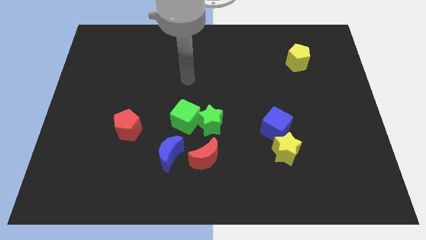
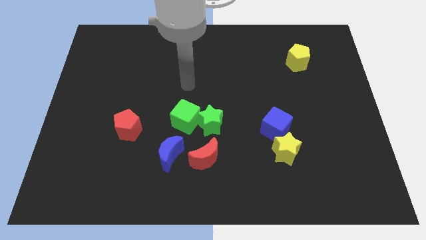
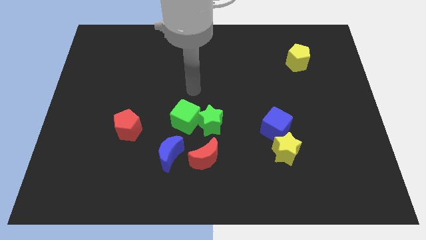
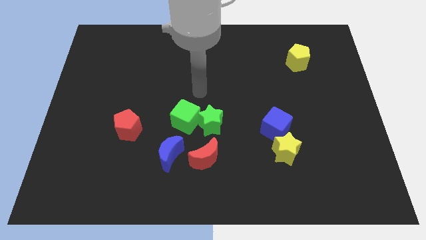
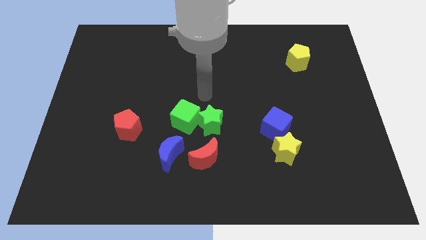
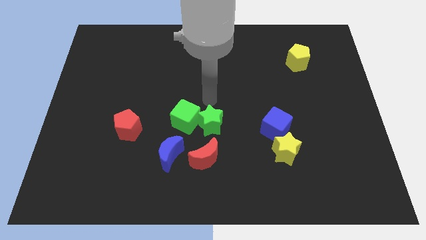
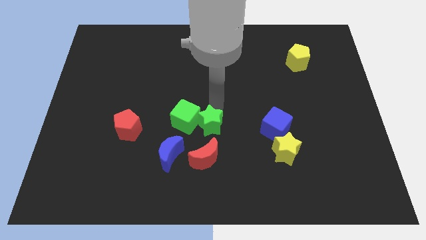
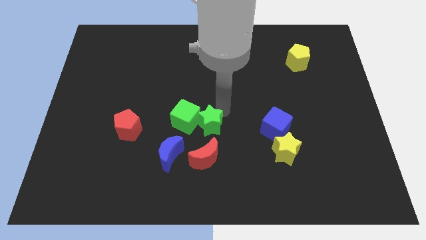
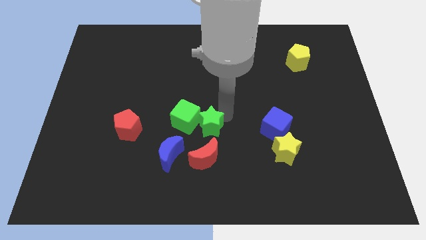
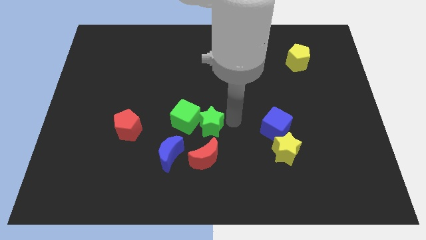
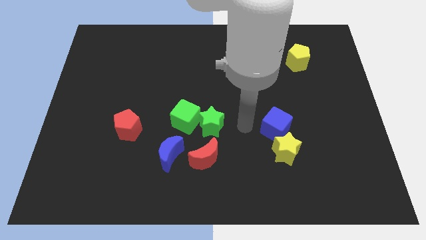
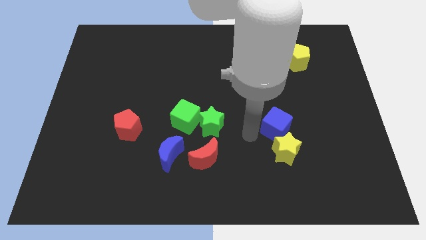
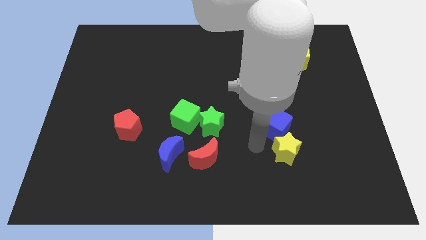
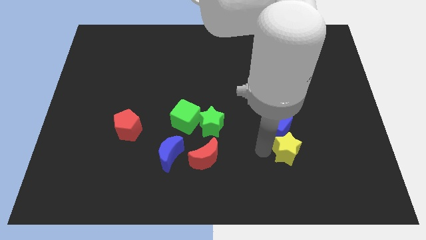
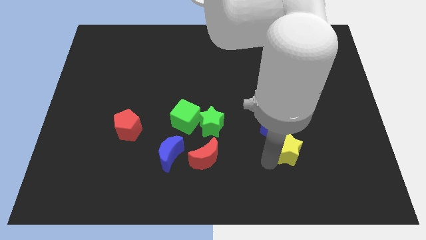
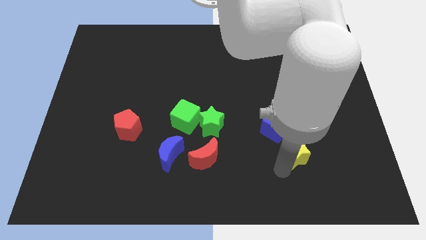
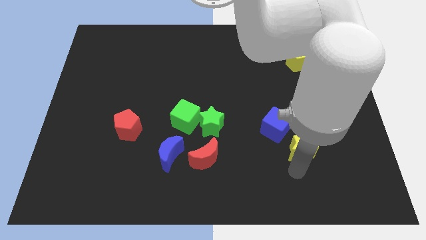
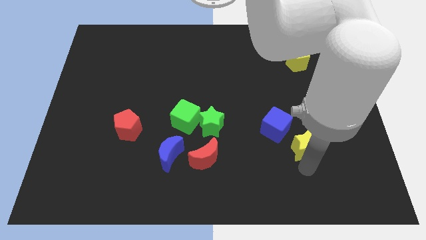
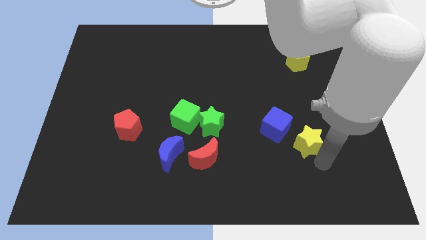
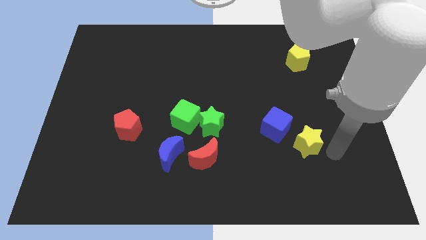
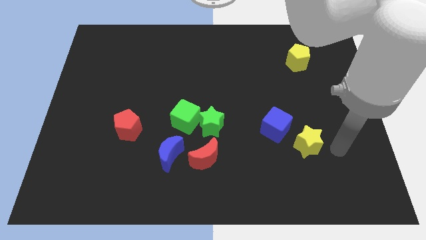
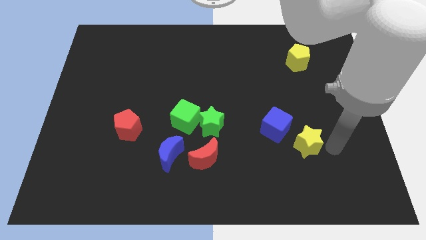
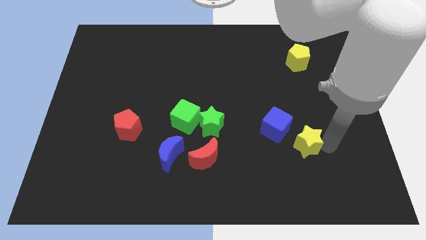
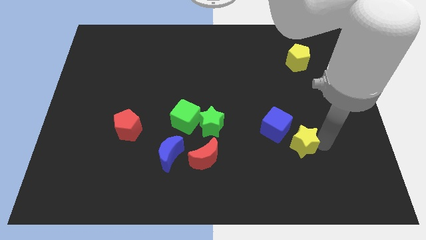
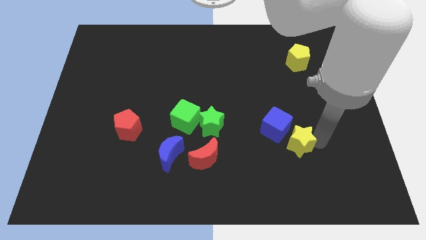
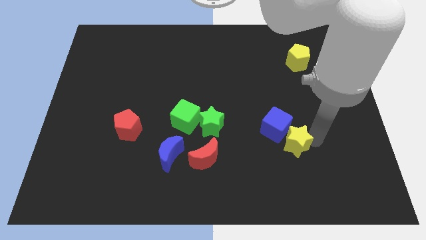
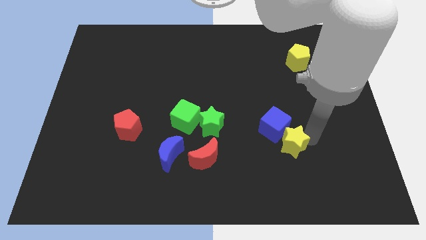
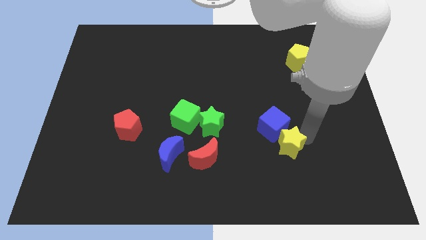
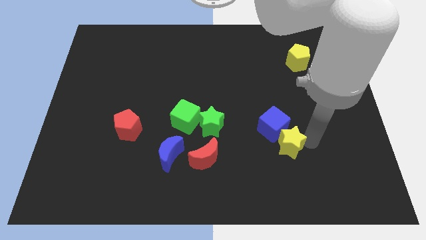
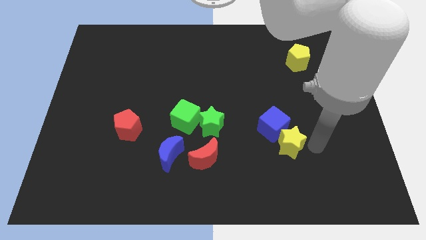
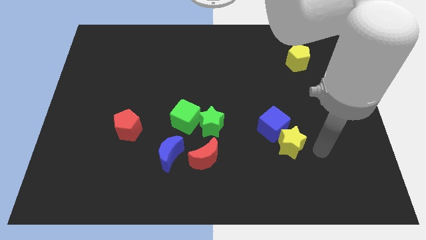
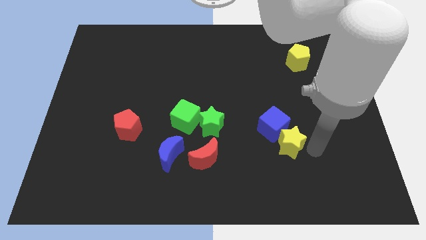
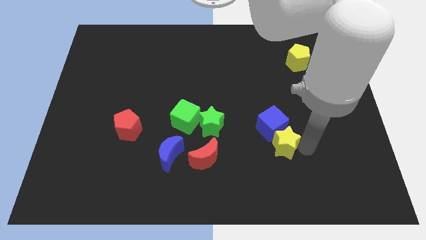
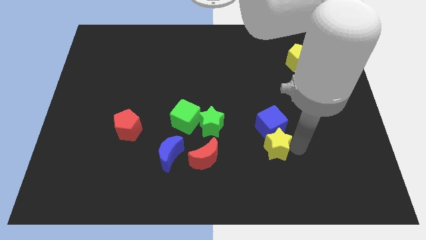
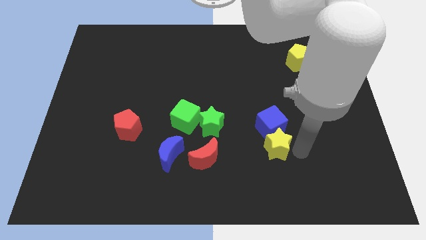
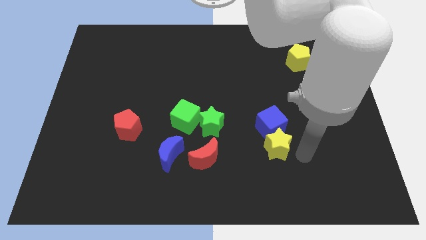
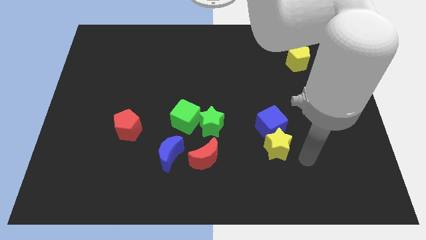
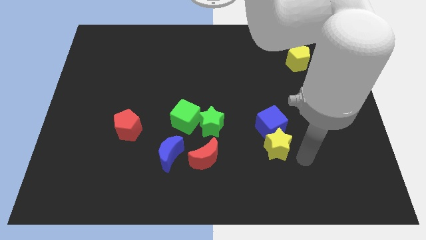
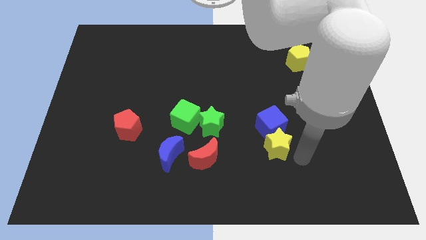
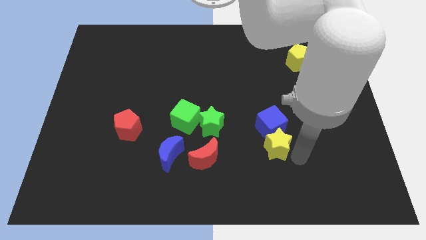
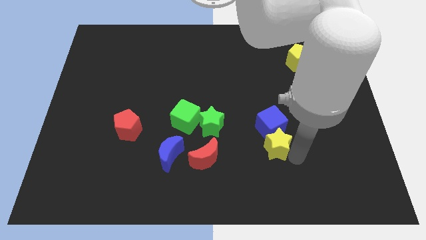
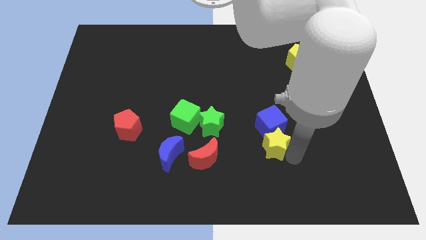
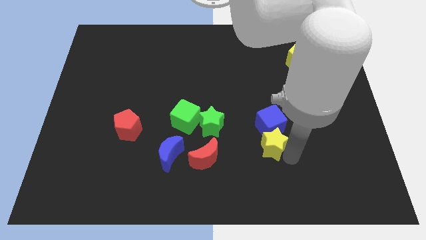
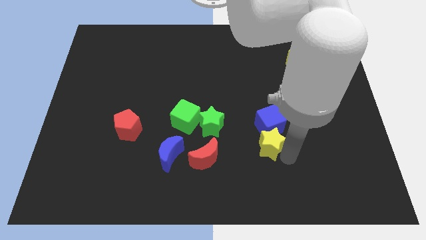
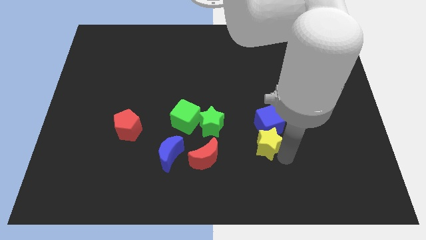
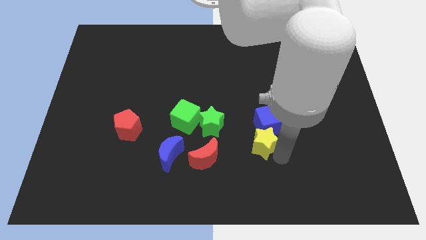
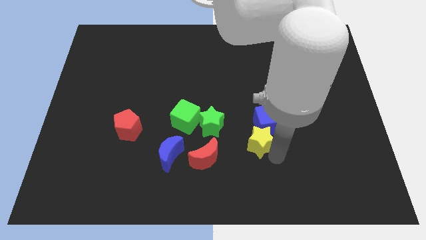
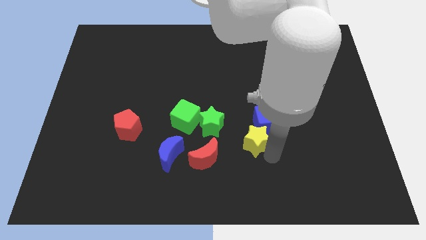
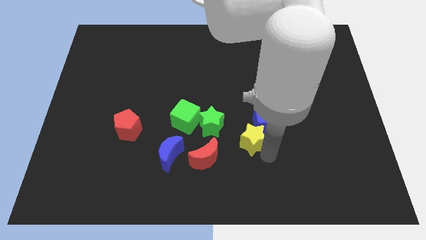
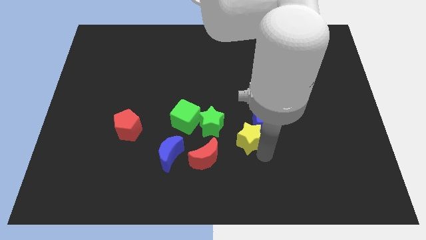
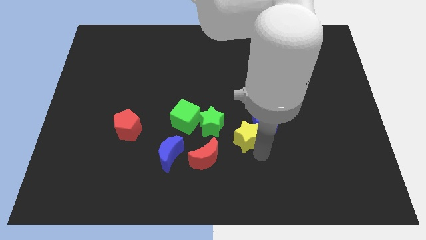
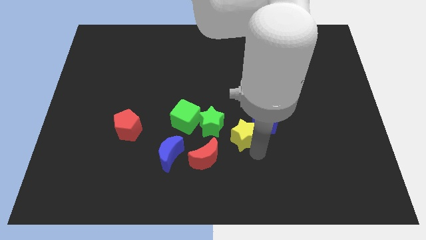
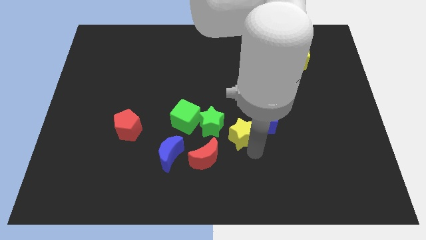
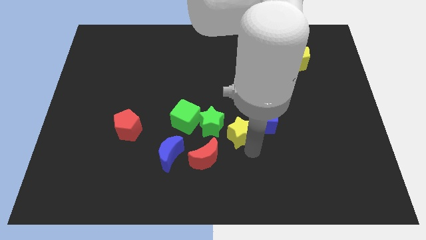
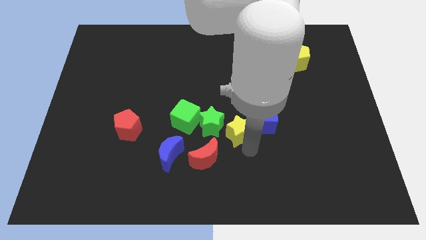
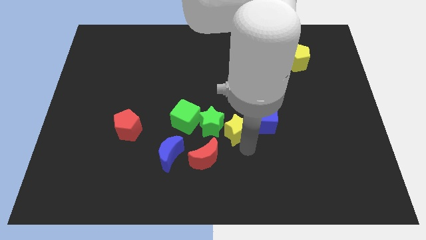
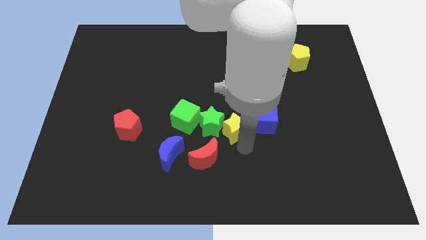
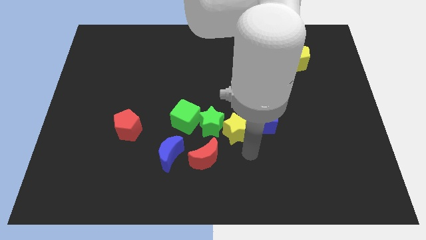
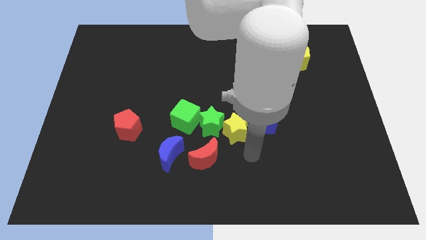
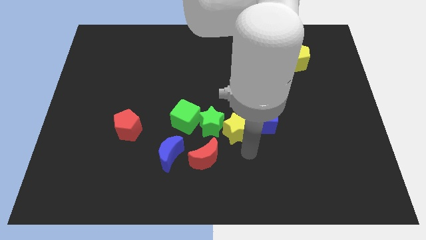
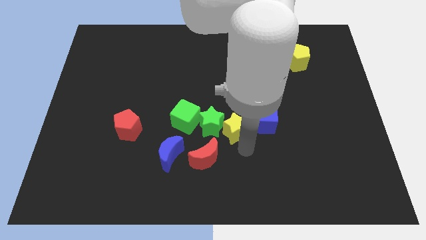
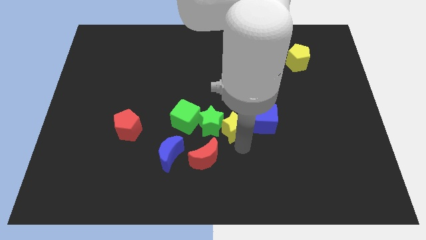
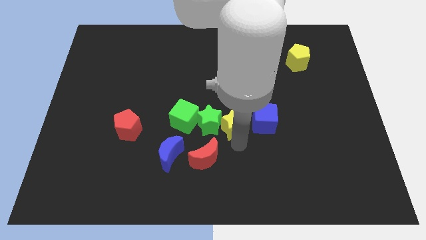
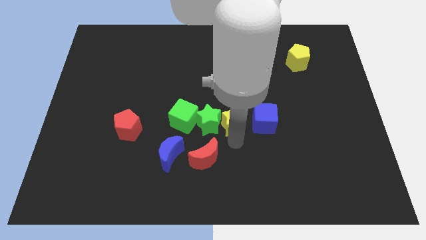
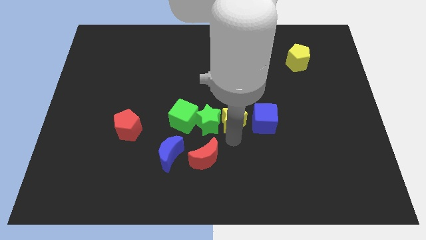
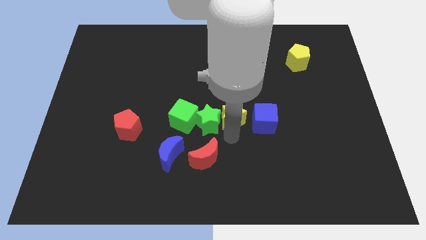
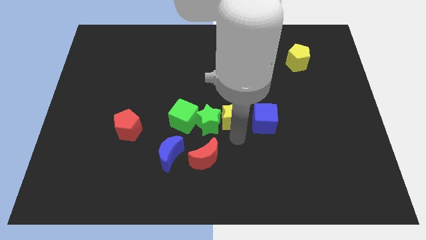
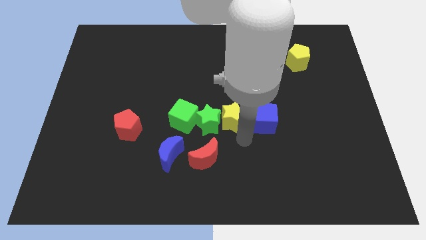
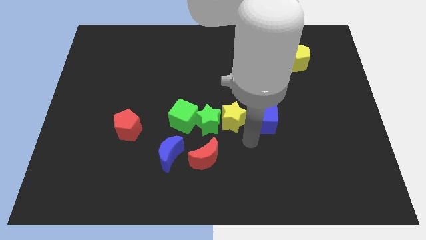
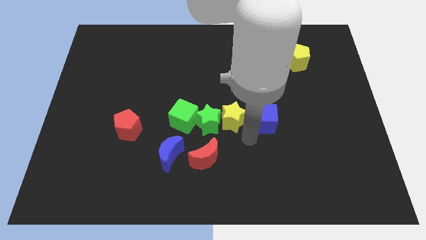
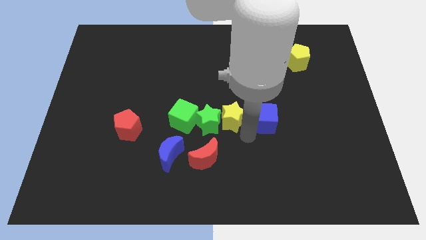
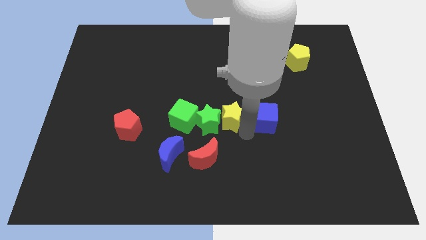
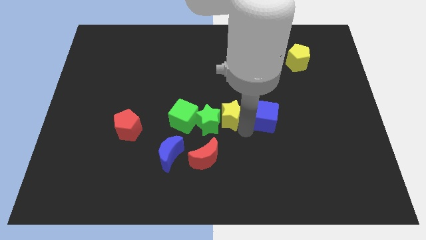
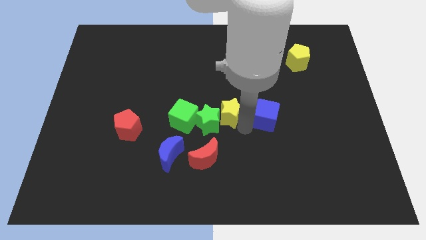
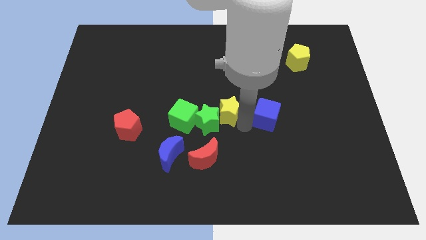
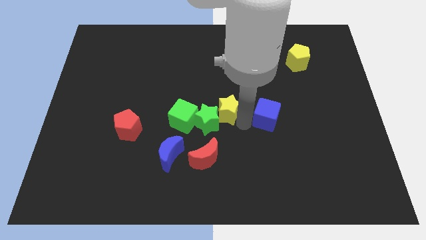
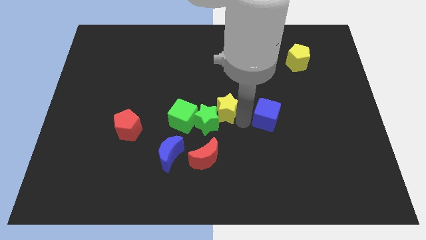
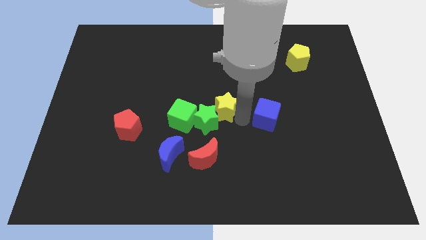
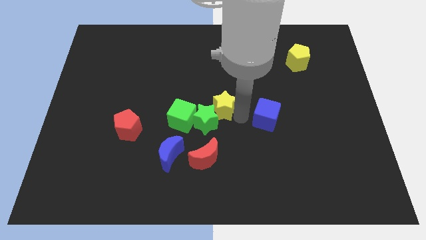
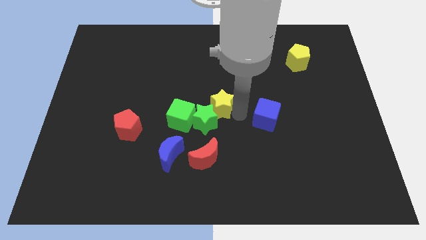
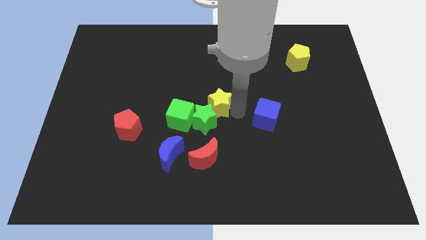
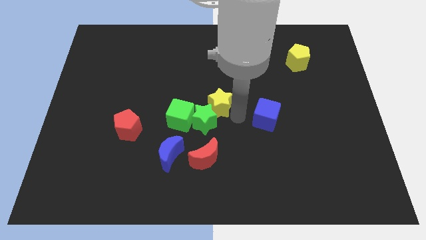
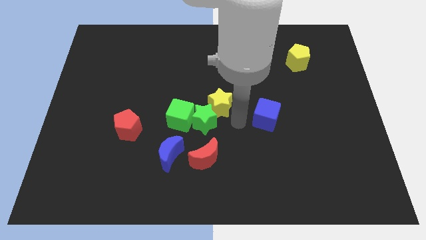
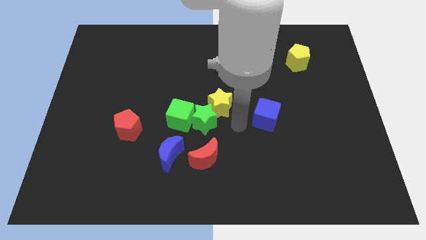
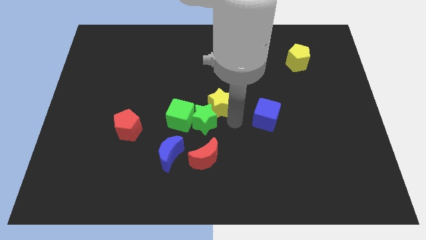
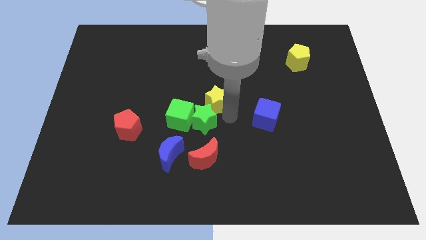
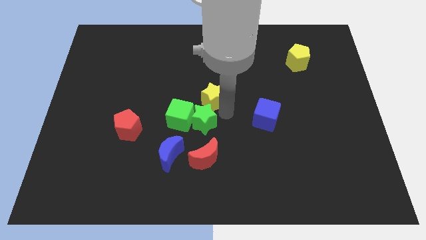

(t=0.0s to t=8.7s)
move the yellow star diagonally up and left
